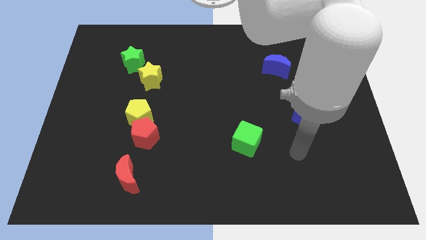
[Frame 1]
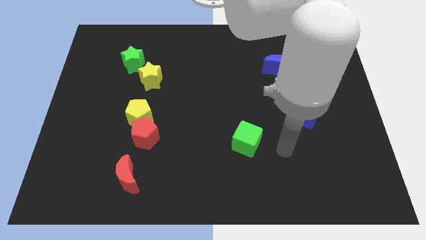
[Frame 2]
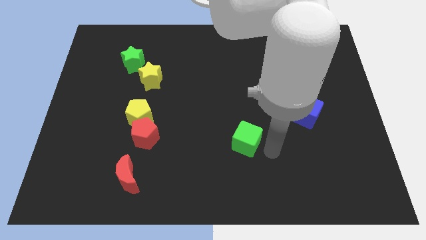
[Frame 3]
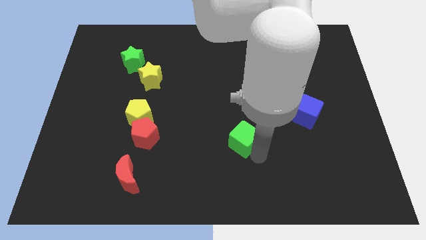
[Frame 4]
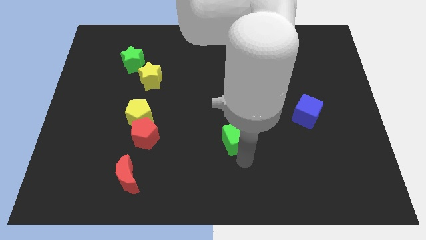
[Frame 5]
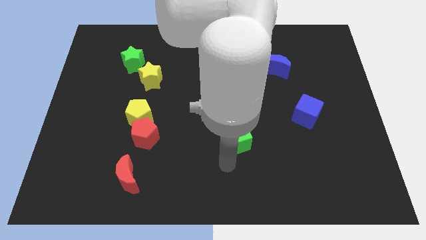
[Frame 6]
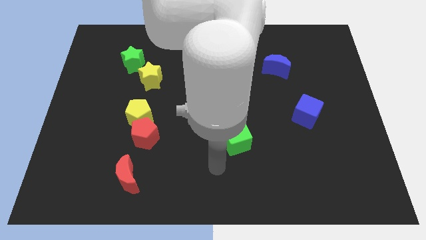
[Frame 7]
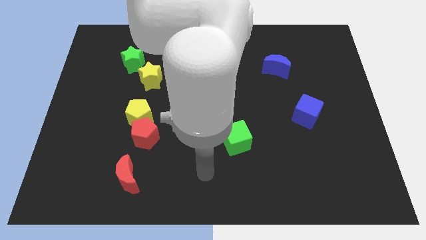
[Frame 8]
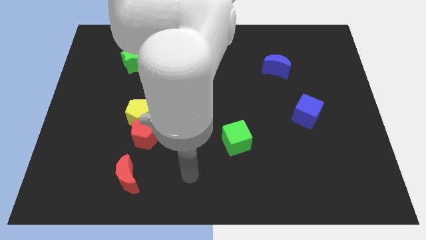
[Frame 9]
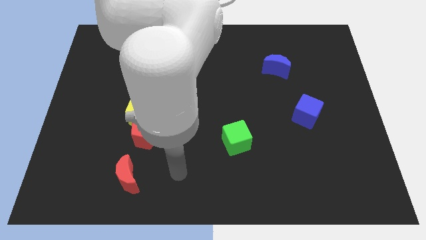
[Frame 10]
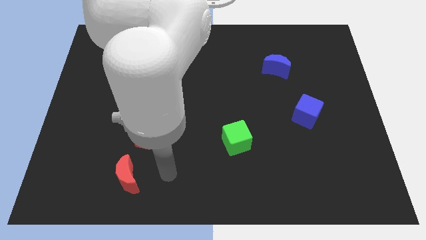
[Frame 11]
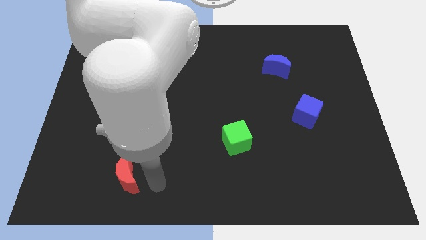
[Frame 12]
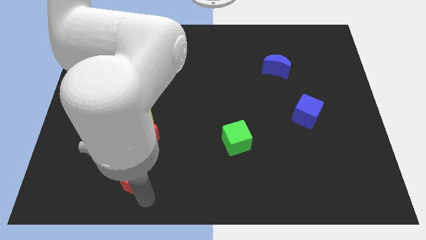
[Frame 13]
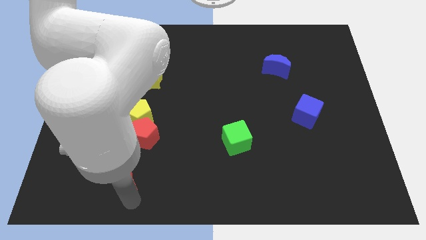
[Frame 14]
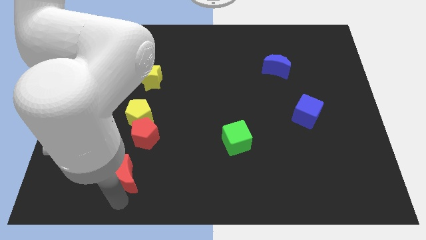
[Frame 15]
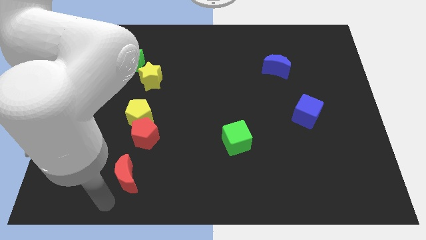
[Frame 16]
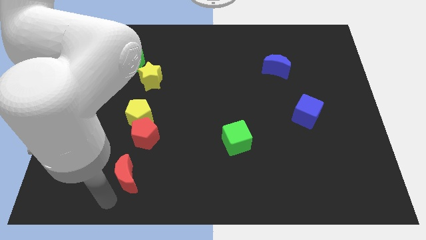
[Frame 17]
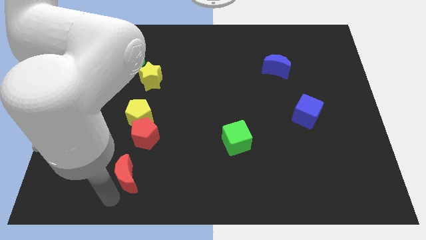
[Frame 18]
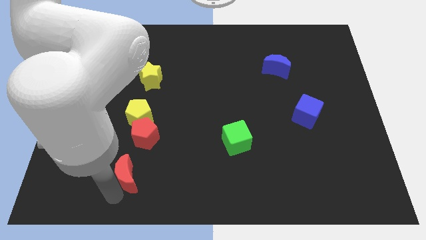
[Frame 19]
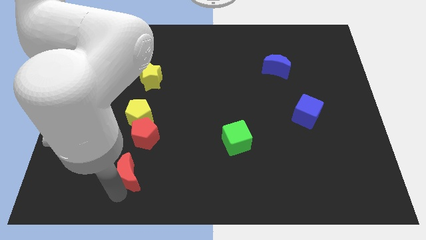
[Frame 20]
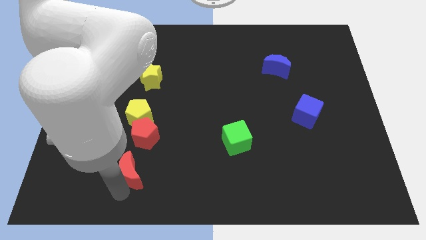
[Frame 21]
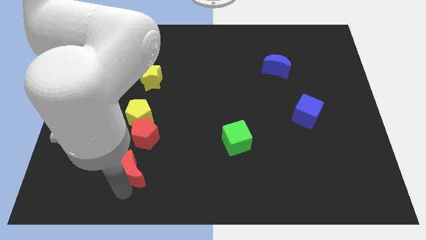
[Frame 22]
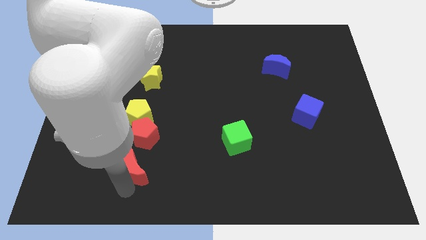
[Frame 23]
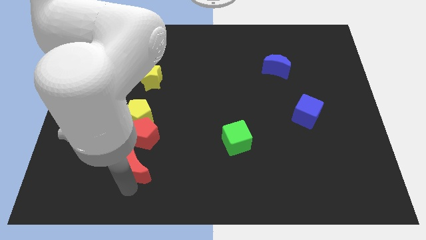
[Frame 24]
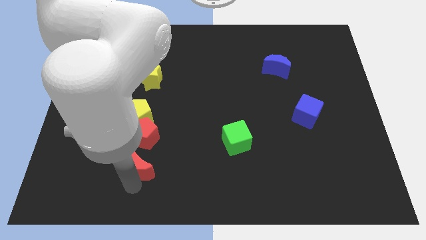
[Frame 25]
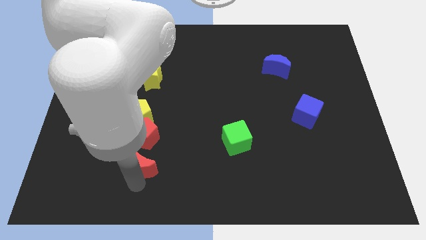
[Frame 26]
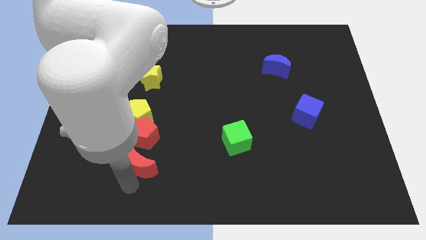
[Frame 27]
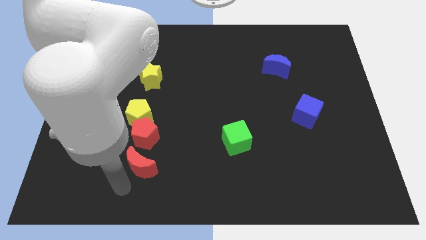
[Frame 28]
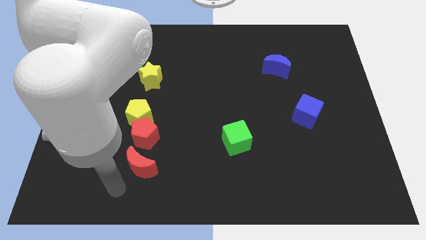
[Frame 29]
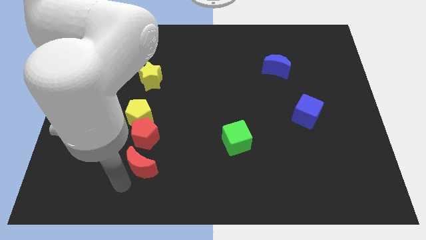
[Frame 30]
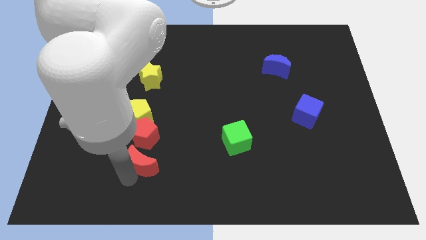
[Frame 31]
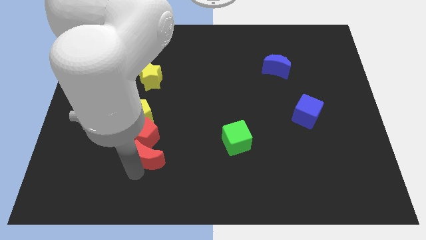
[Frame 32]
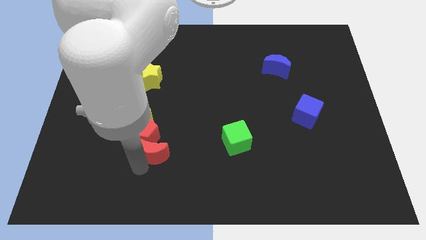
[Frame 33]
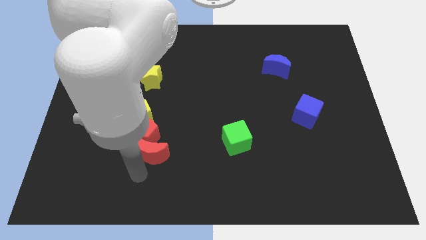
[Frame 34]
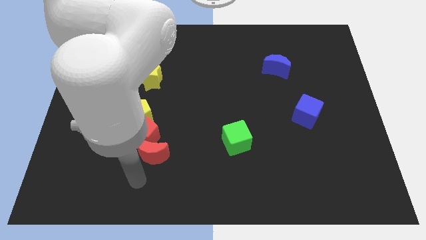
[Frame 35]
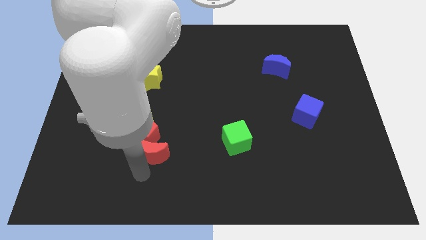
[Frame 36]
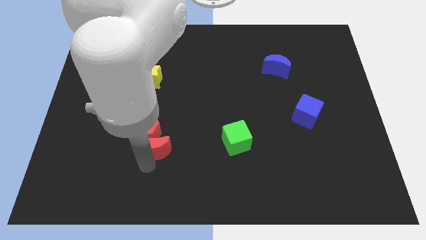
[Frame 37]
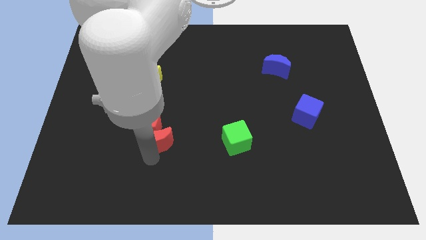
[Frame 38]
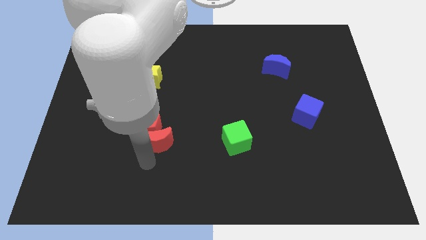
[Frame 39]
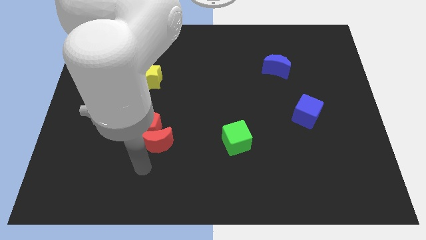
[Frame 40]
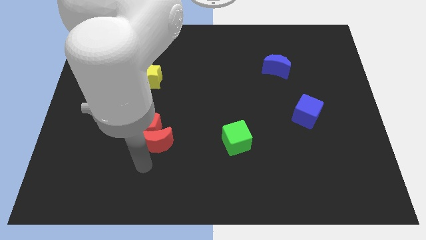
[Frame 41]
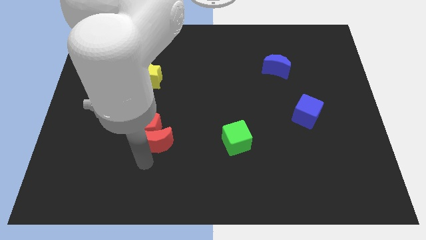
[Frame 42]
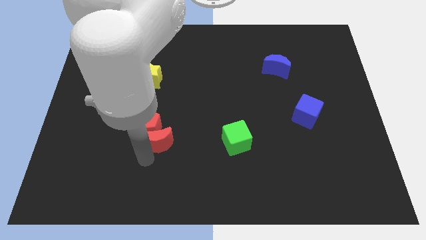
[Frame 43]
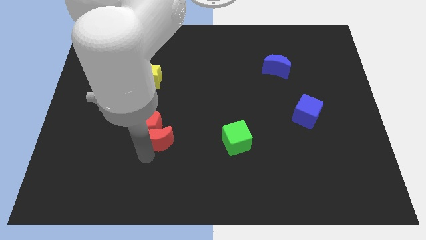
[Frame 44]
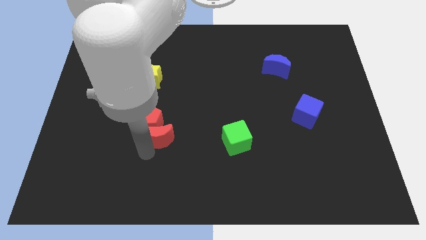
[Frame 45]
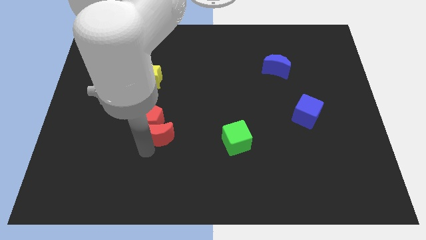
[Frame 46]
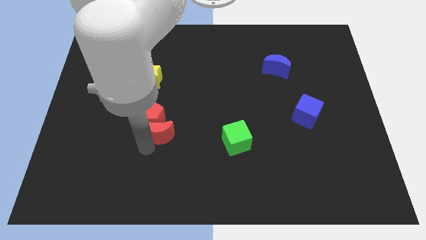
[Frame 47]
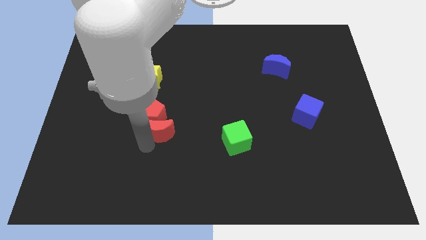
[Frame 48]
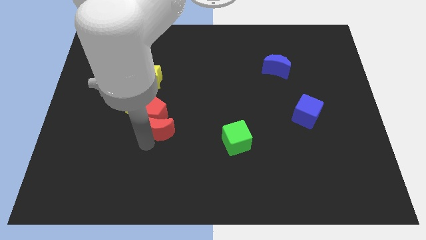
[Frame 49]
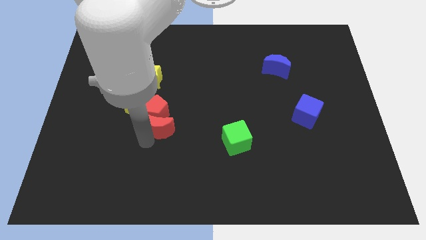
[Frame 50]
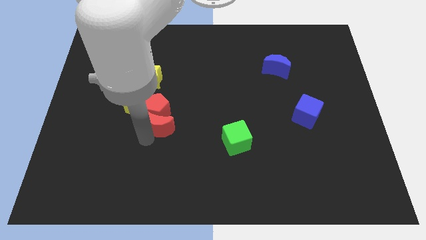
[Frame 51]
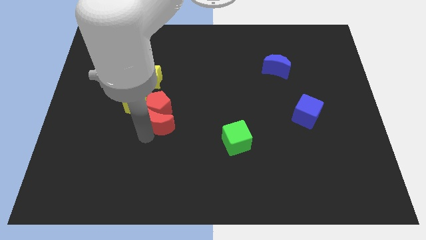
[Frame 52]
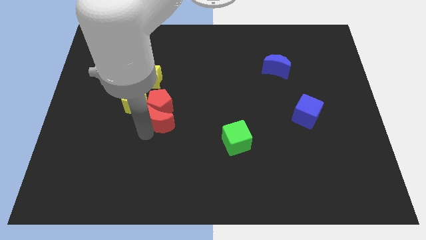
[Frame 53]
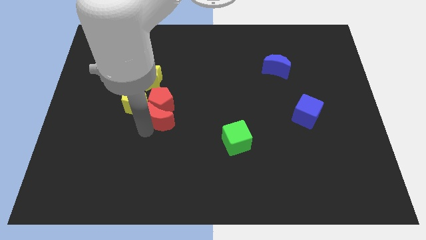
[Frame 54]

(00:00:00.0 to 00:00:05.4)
move the red moon right of the yellow pentagon

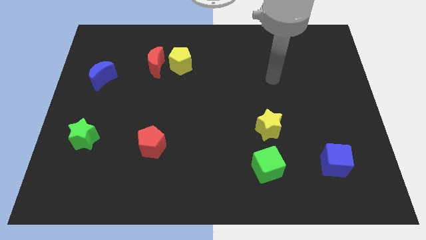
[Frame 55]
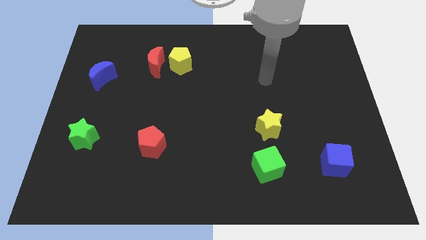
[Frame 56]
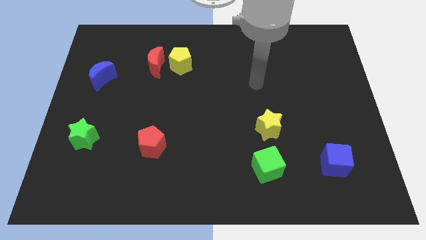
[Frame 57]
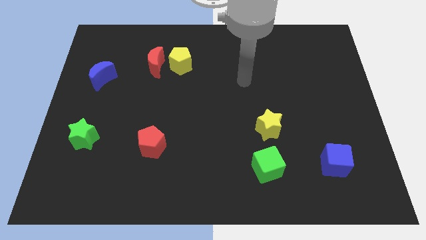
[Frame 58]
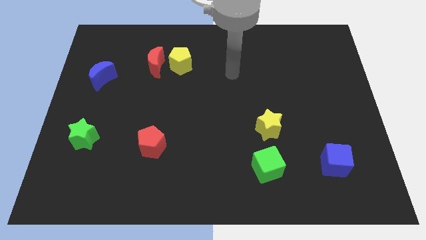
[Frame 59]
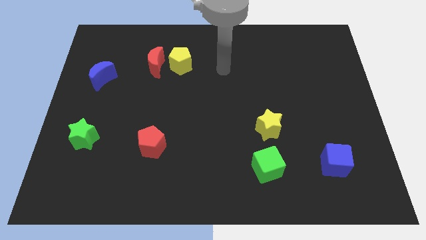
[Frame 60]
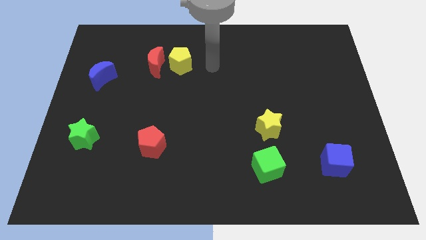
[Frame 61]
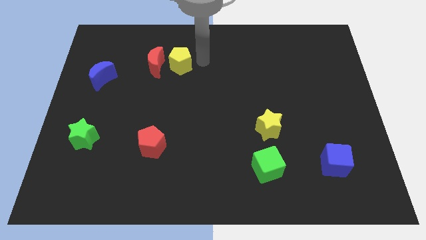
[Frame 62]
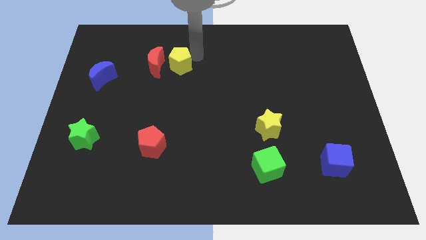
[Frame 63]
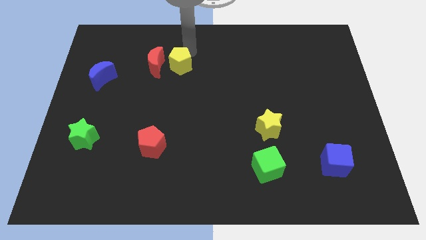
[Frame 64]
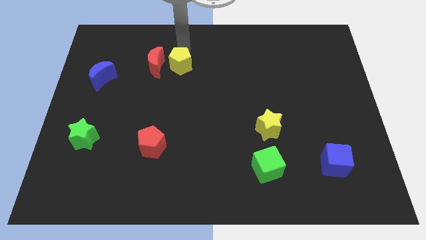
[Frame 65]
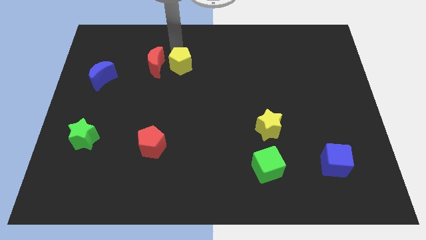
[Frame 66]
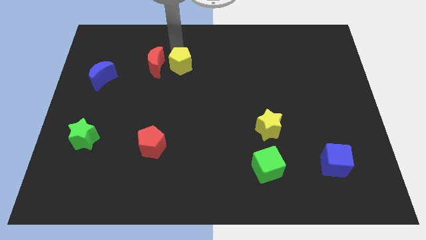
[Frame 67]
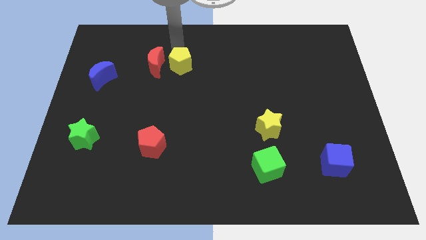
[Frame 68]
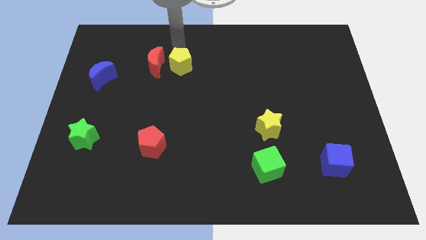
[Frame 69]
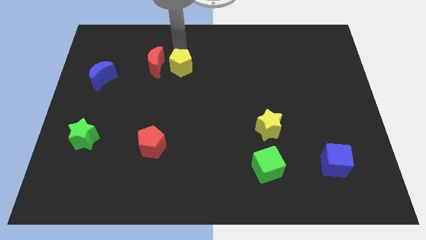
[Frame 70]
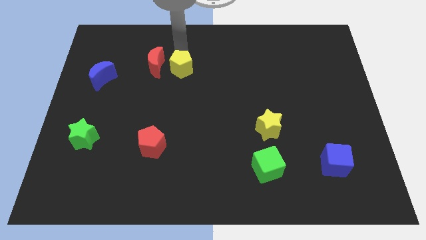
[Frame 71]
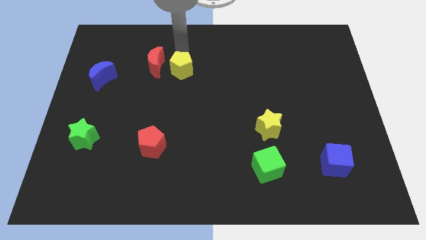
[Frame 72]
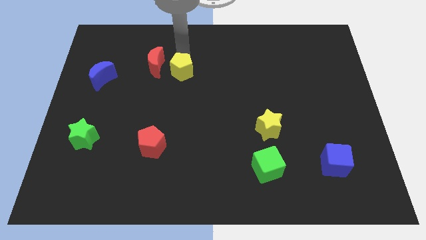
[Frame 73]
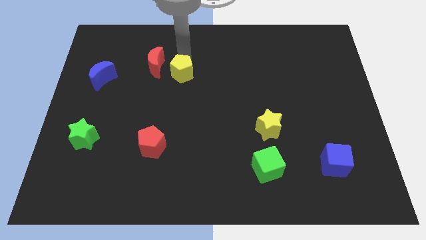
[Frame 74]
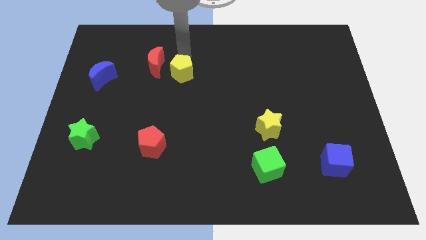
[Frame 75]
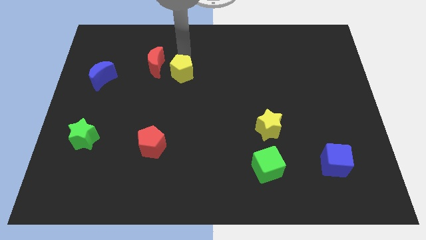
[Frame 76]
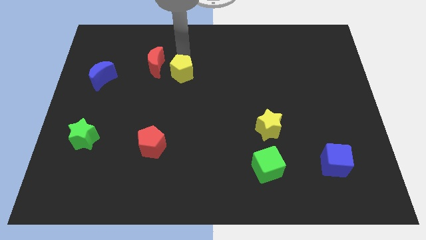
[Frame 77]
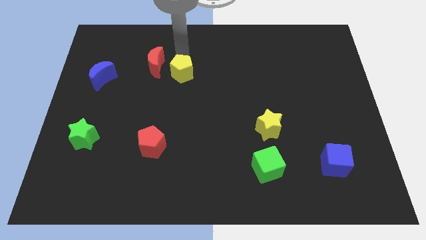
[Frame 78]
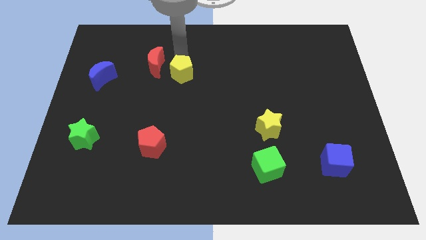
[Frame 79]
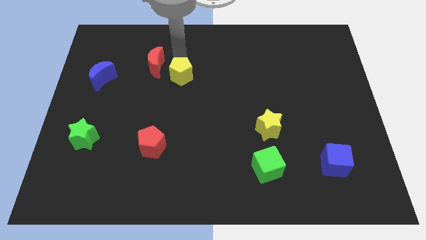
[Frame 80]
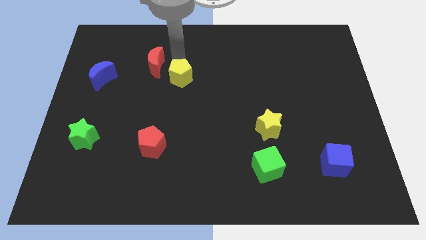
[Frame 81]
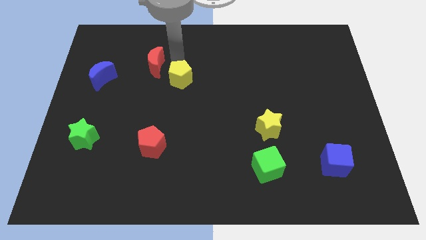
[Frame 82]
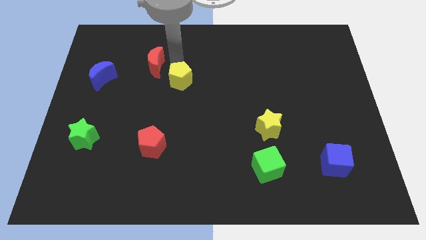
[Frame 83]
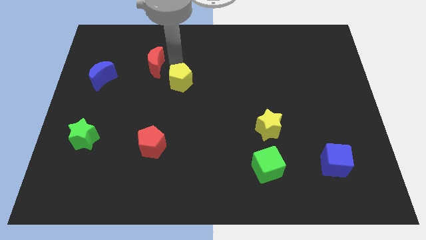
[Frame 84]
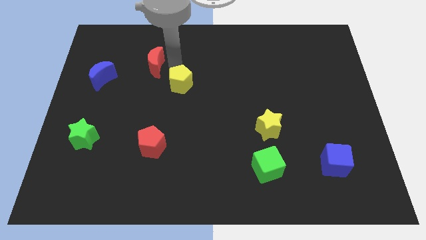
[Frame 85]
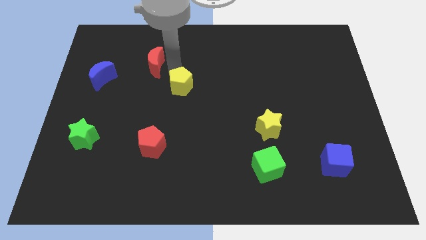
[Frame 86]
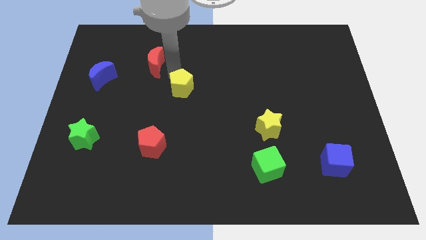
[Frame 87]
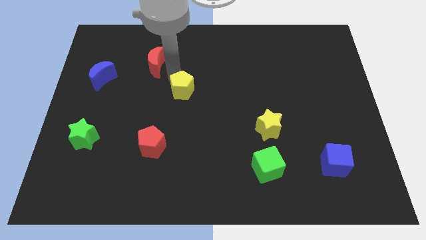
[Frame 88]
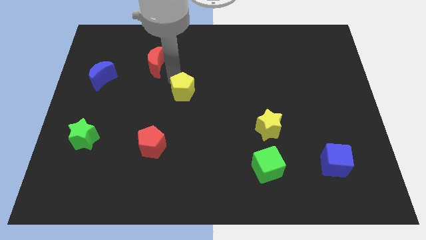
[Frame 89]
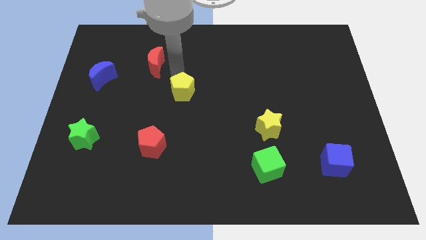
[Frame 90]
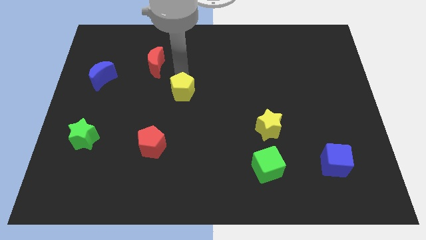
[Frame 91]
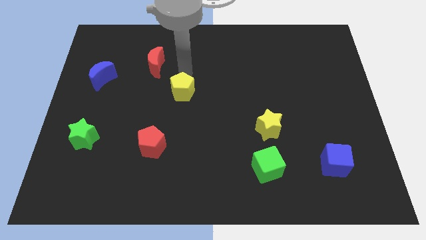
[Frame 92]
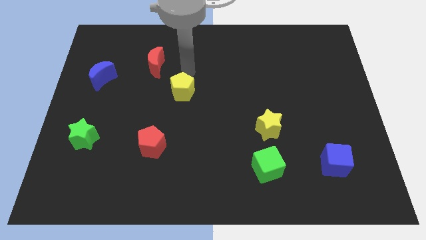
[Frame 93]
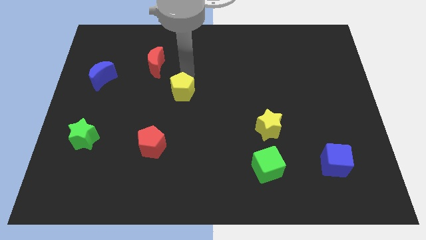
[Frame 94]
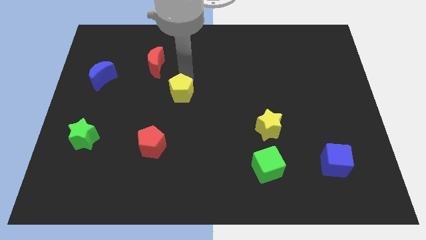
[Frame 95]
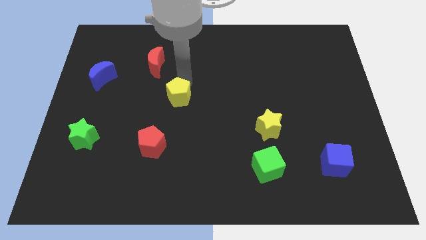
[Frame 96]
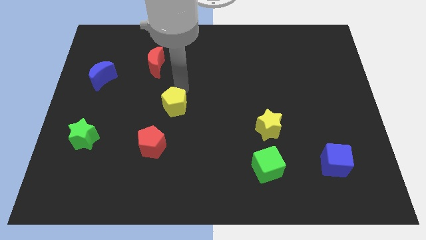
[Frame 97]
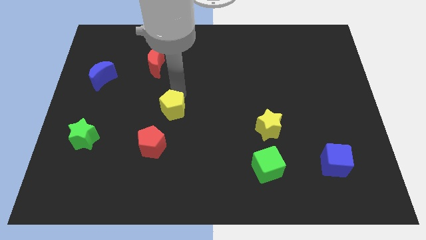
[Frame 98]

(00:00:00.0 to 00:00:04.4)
put the yellow pentagon to the top right of the red pentagon
